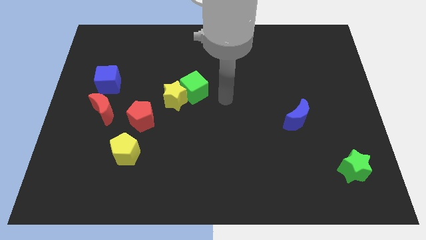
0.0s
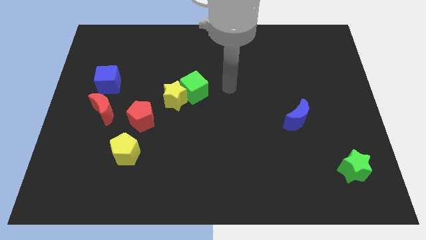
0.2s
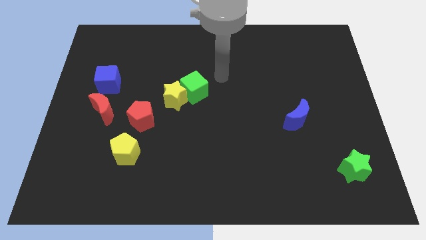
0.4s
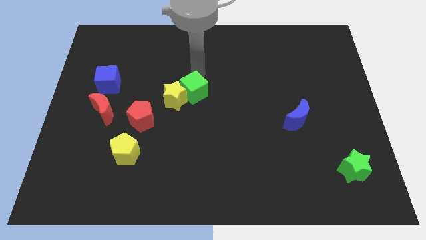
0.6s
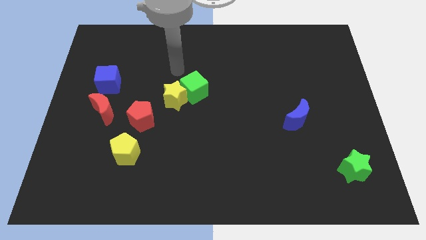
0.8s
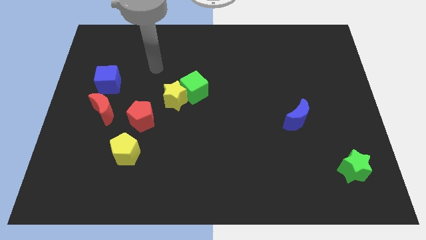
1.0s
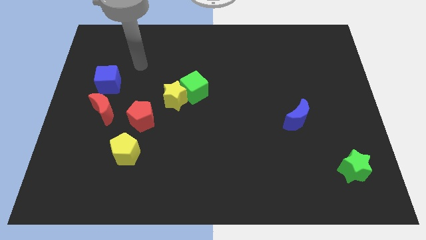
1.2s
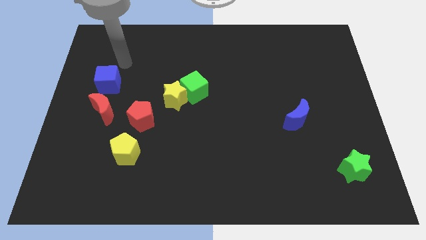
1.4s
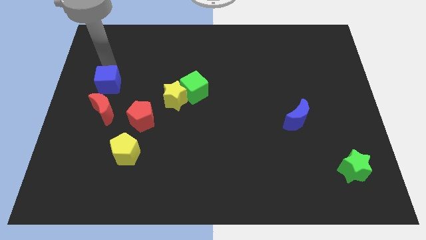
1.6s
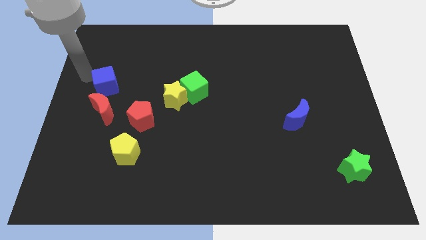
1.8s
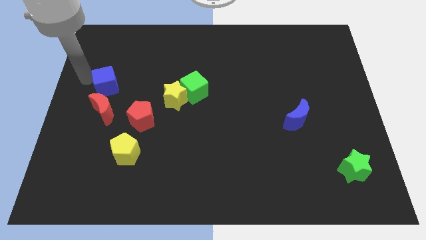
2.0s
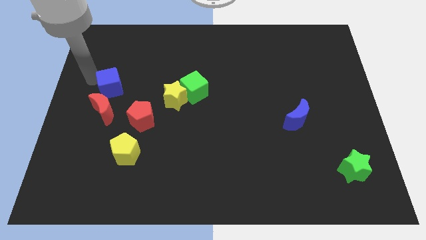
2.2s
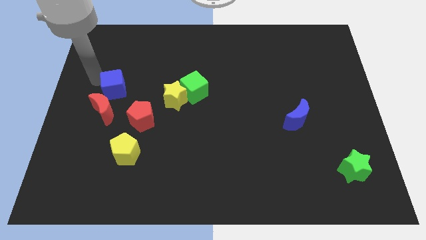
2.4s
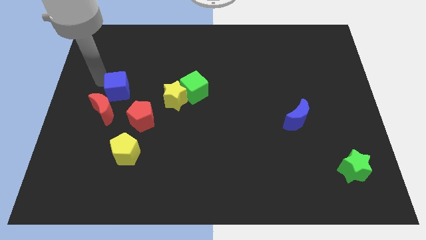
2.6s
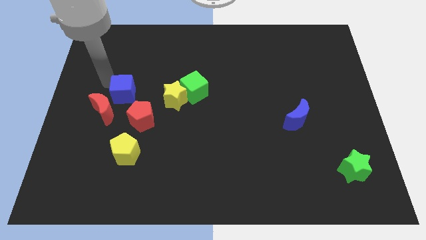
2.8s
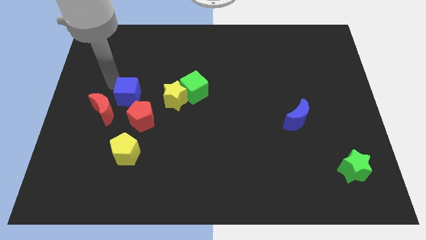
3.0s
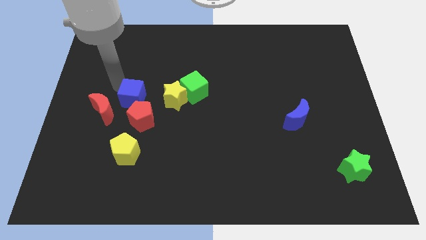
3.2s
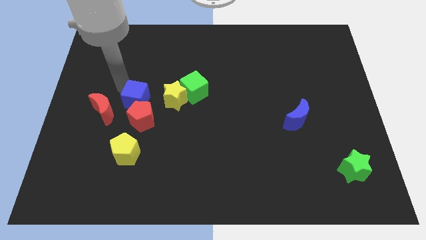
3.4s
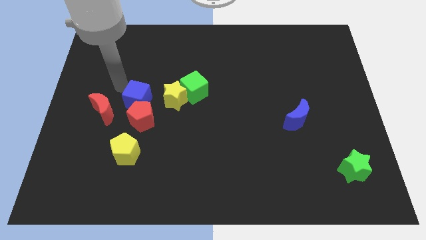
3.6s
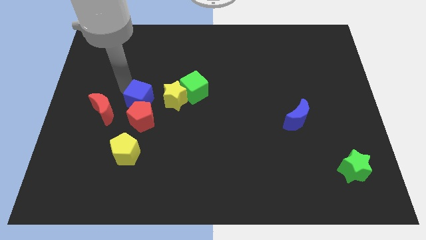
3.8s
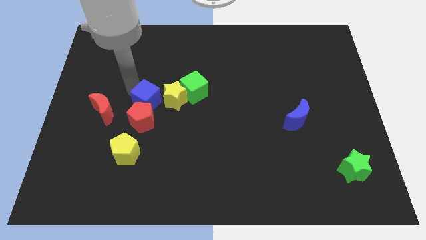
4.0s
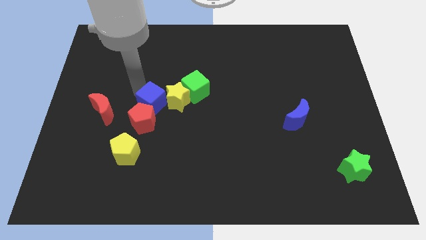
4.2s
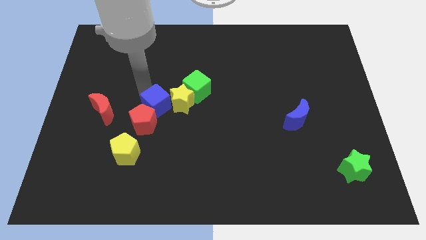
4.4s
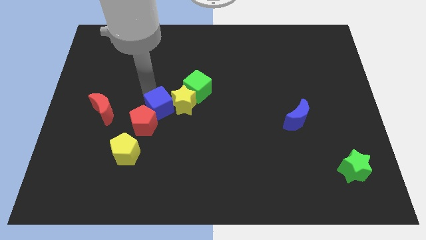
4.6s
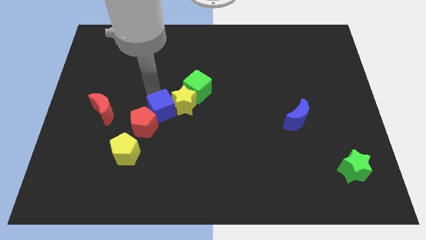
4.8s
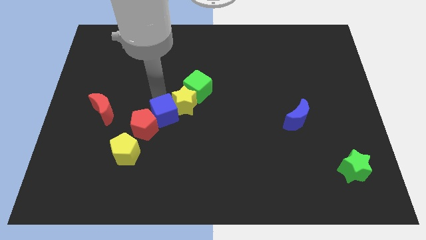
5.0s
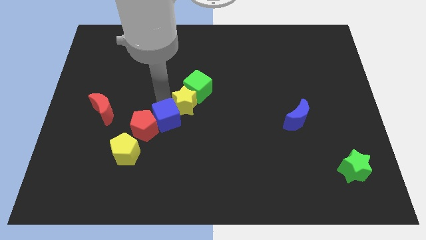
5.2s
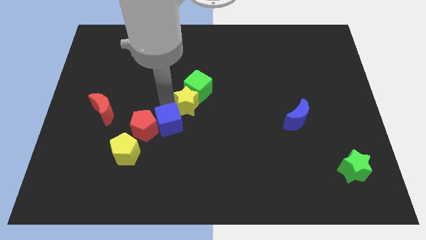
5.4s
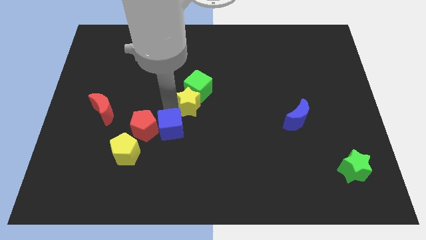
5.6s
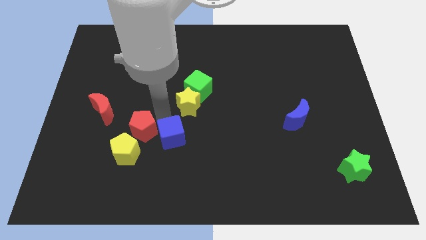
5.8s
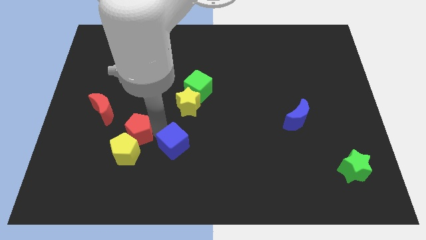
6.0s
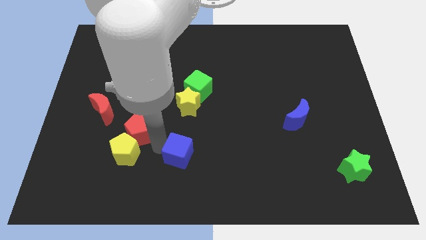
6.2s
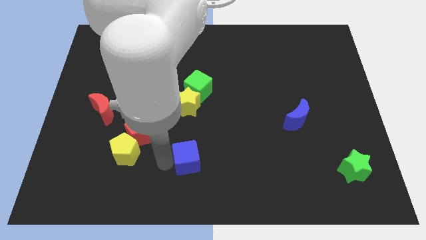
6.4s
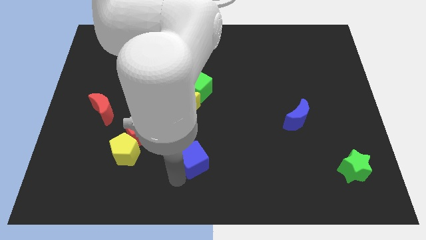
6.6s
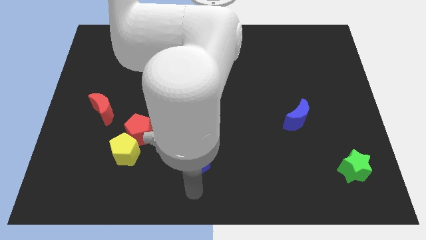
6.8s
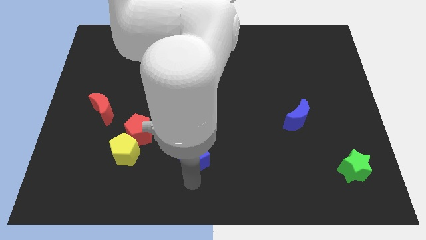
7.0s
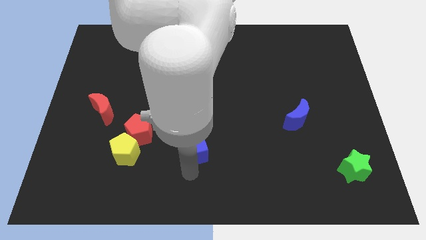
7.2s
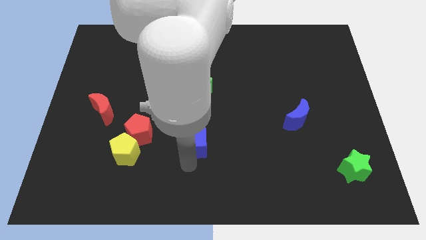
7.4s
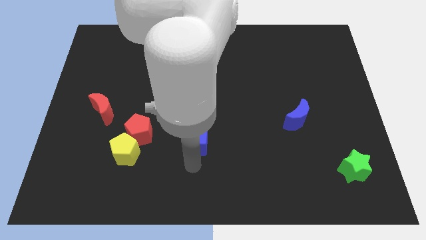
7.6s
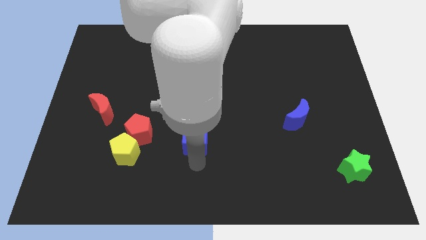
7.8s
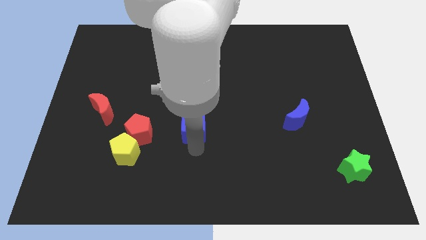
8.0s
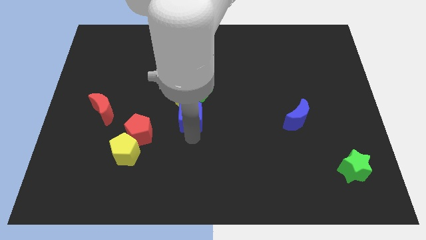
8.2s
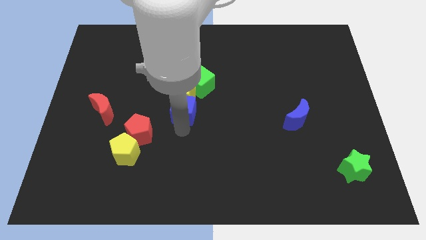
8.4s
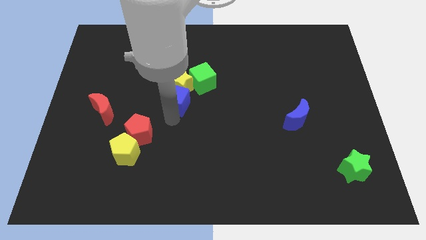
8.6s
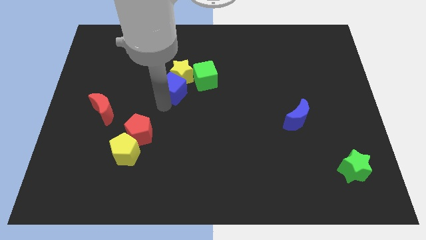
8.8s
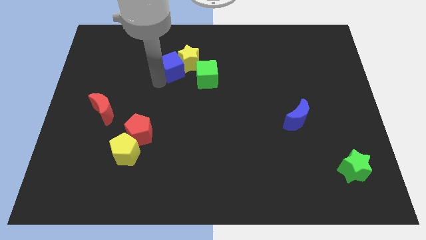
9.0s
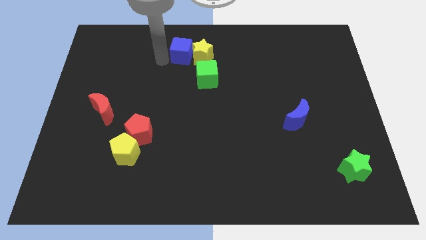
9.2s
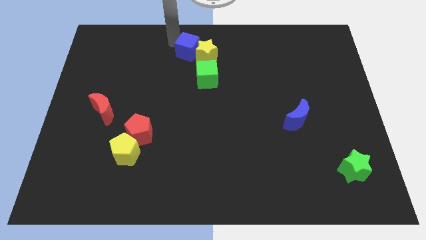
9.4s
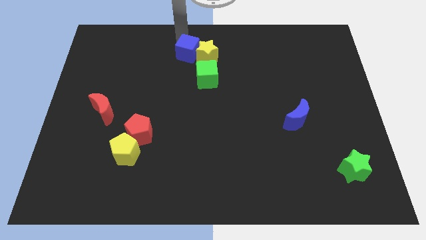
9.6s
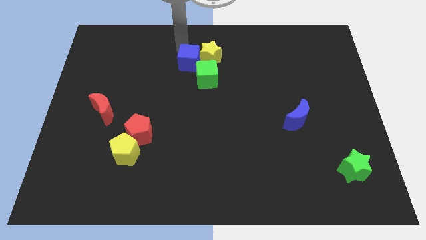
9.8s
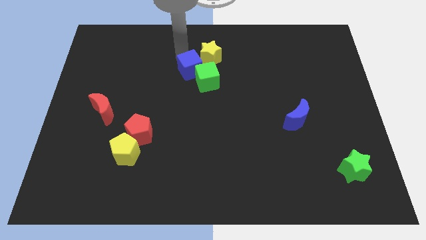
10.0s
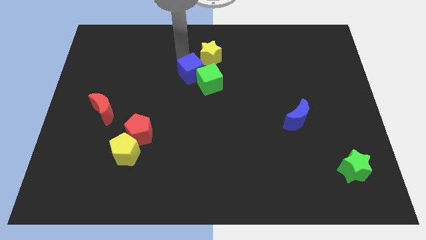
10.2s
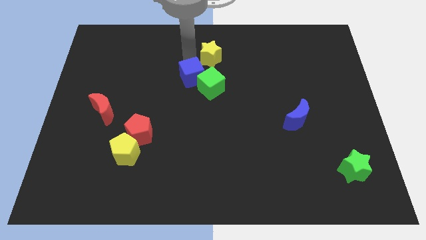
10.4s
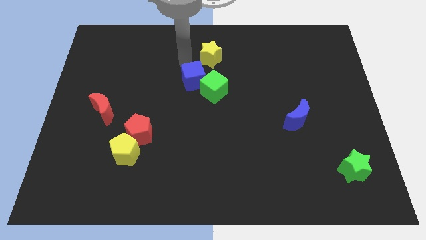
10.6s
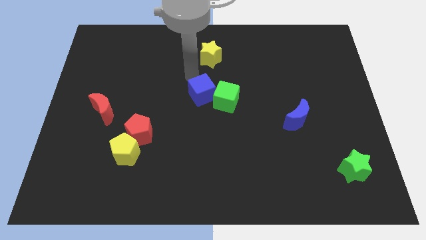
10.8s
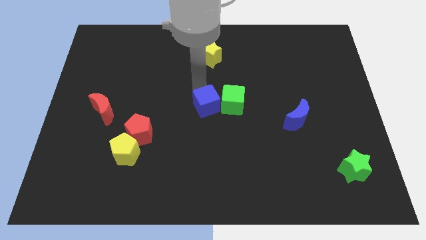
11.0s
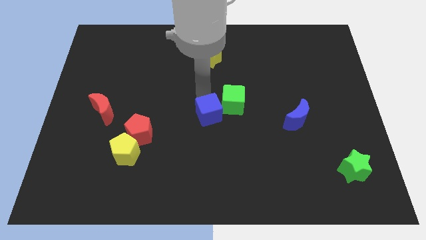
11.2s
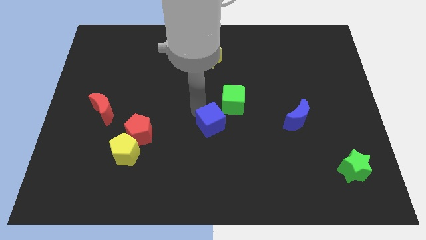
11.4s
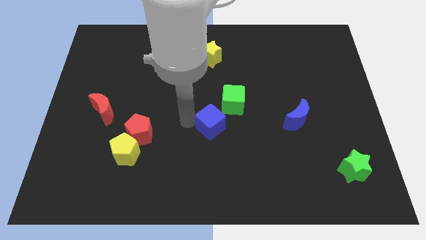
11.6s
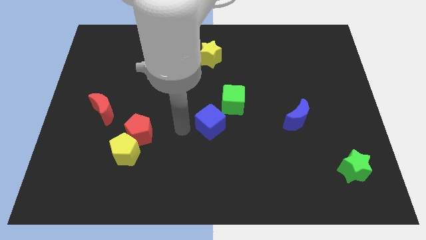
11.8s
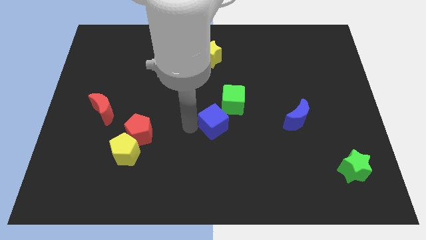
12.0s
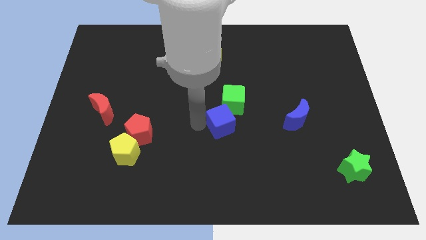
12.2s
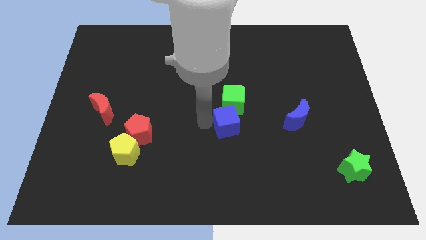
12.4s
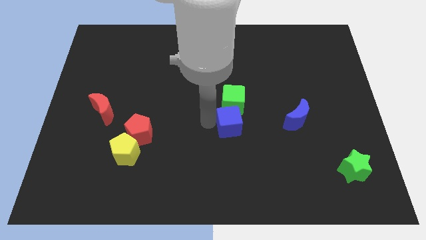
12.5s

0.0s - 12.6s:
slide the blue cube just left of the blue moon

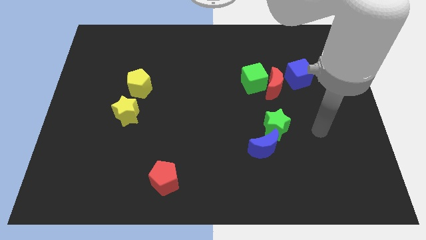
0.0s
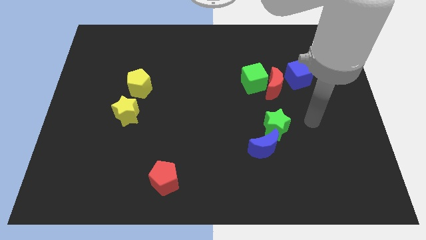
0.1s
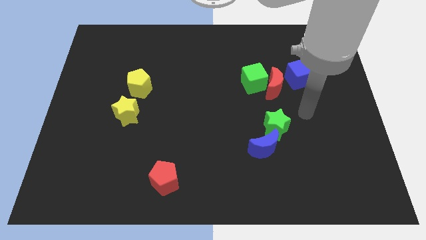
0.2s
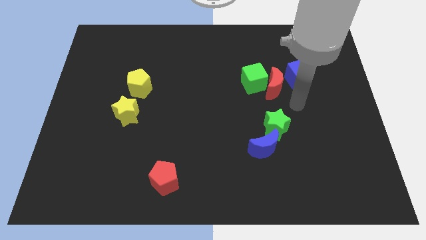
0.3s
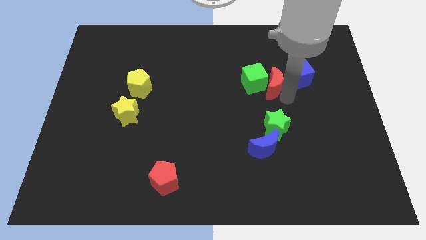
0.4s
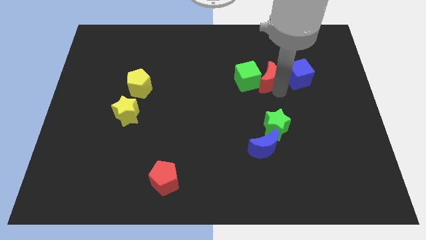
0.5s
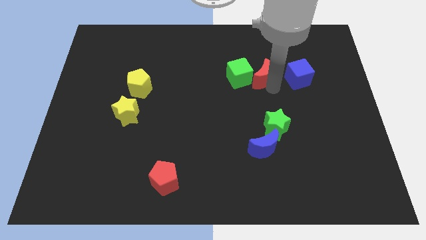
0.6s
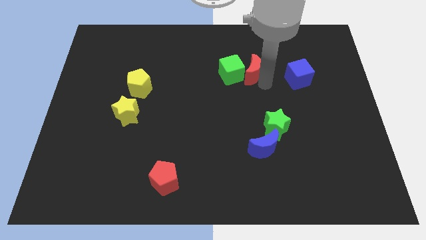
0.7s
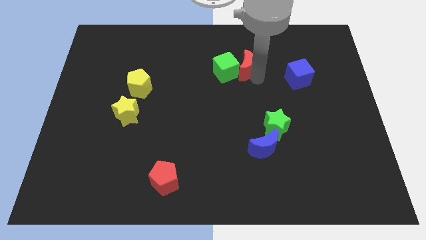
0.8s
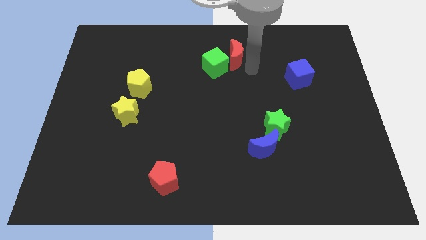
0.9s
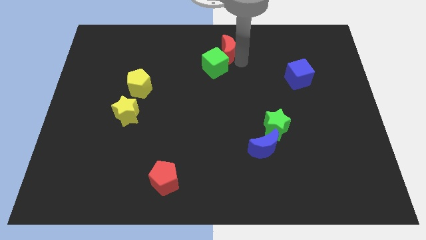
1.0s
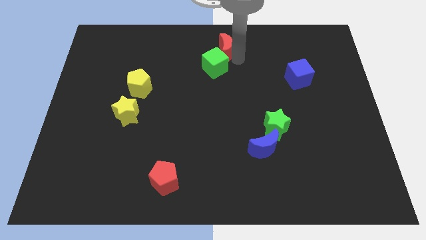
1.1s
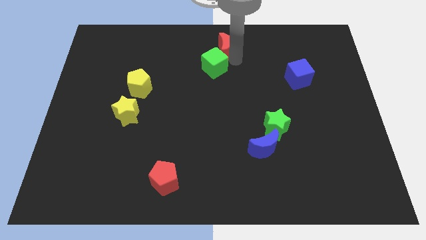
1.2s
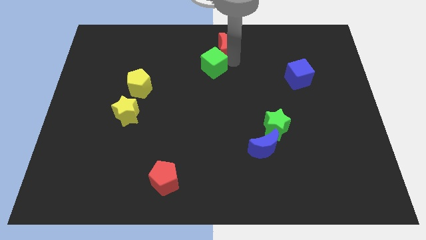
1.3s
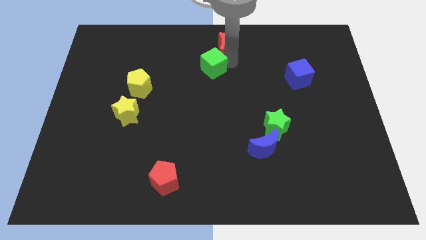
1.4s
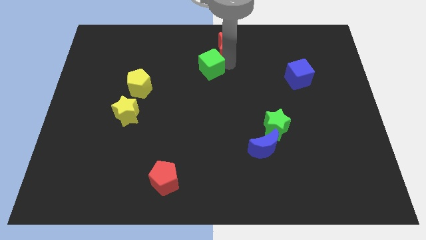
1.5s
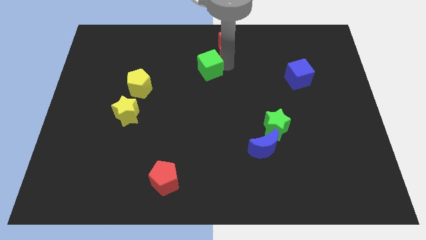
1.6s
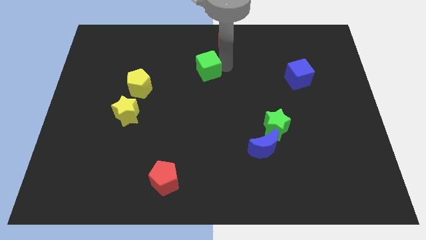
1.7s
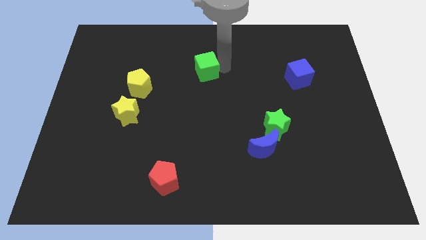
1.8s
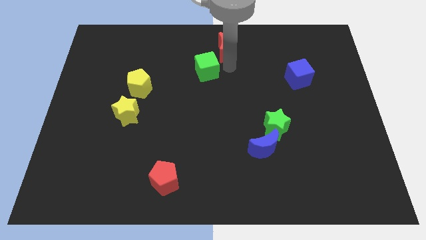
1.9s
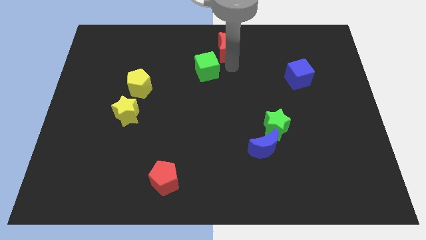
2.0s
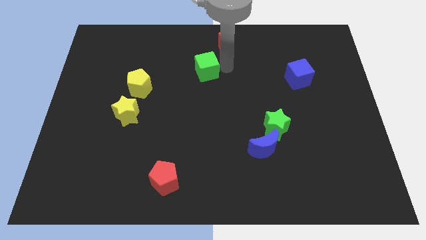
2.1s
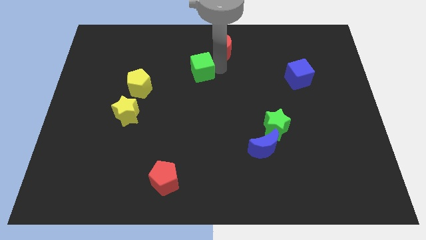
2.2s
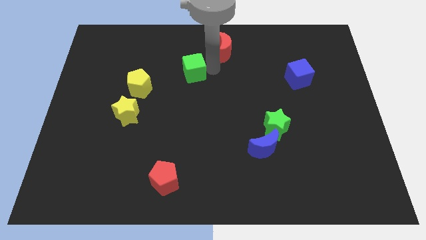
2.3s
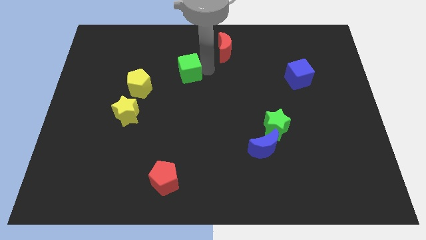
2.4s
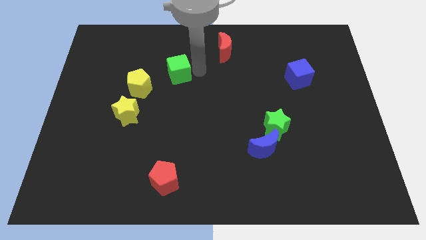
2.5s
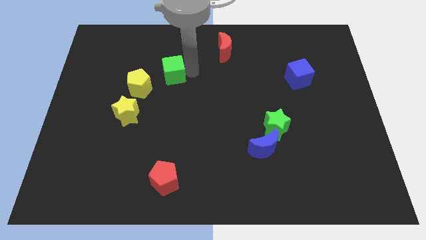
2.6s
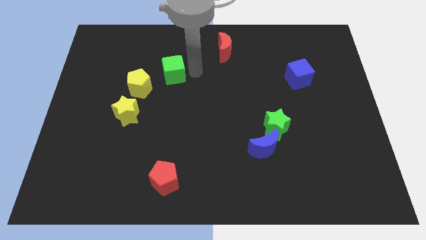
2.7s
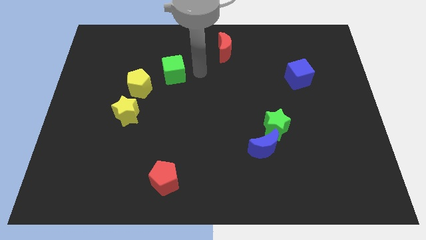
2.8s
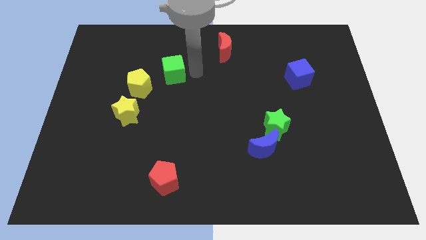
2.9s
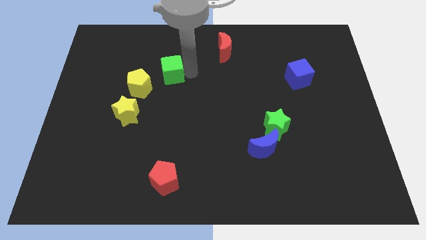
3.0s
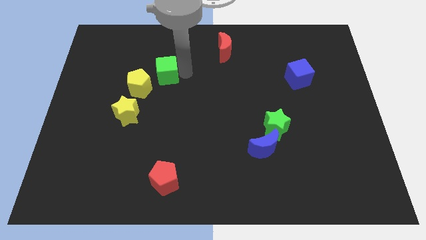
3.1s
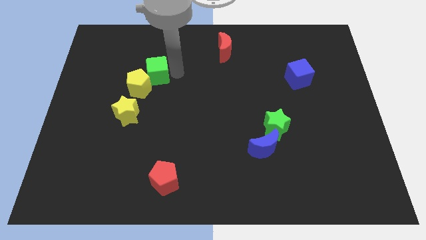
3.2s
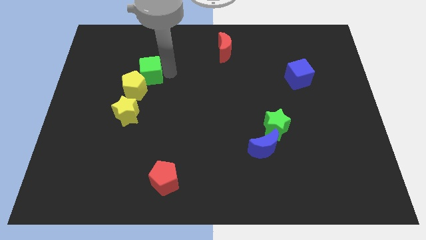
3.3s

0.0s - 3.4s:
push the green cube to the top side of the yellow star
